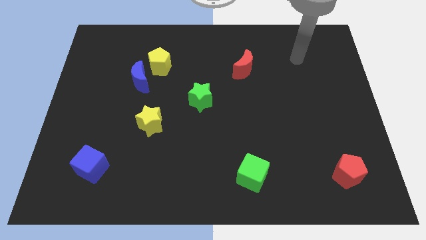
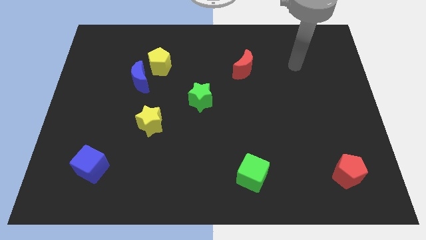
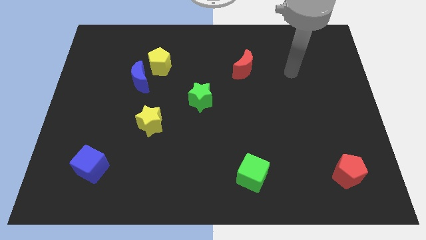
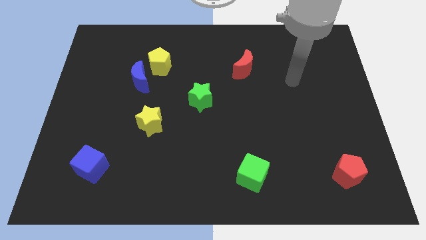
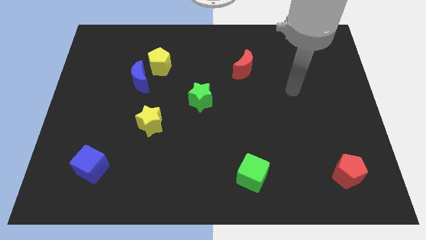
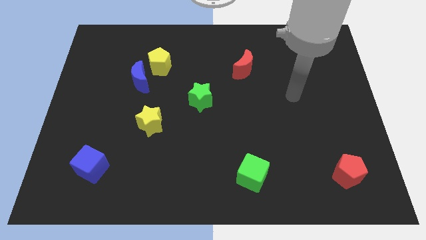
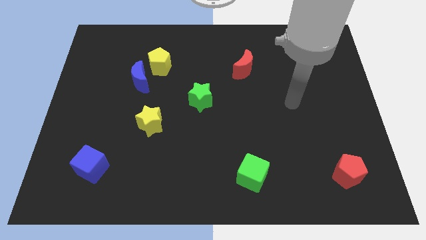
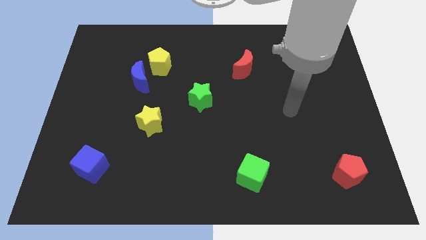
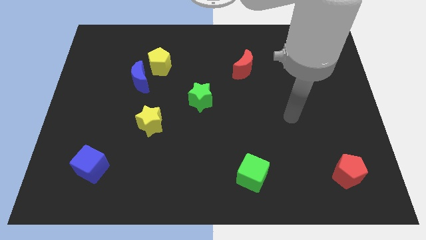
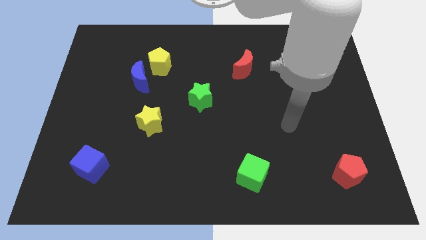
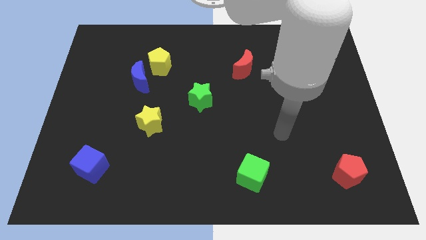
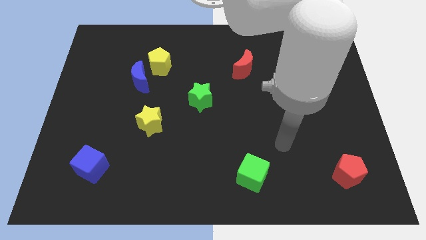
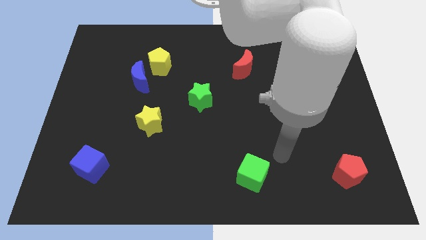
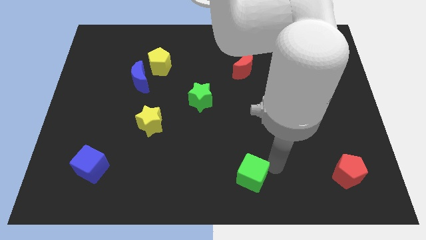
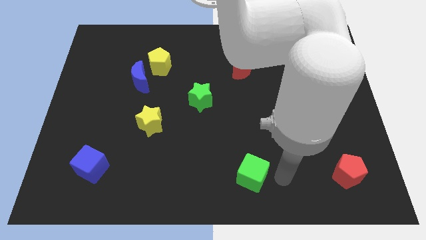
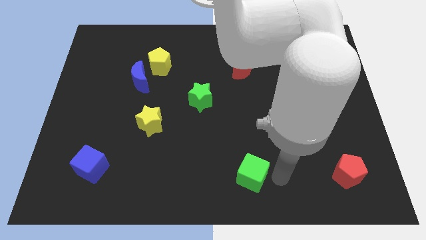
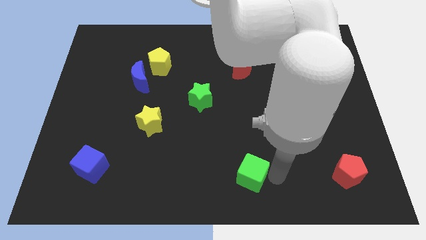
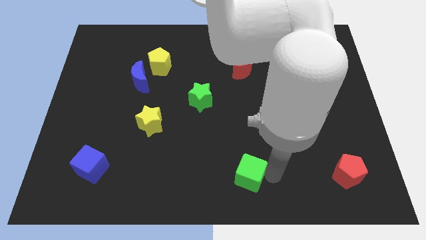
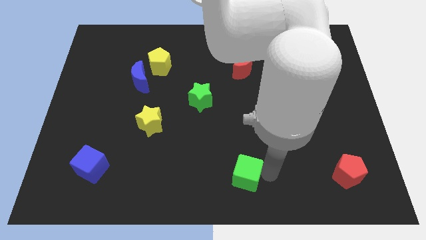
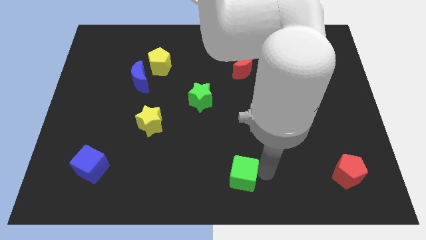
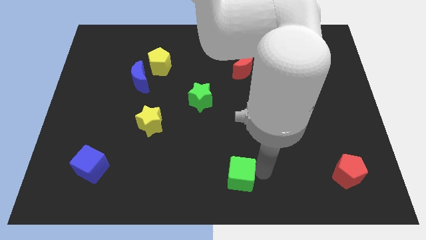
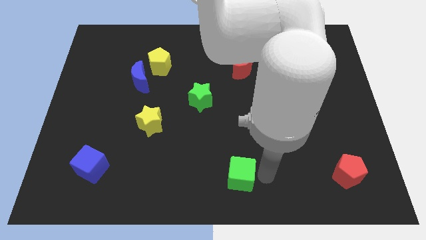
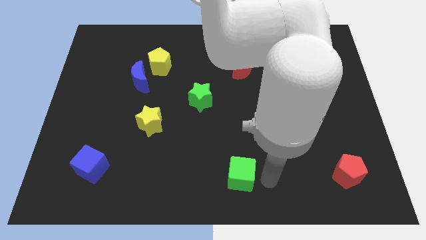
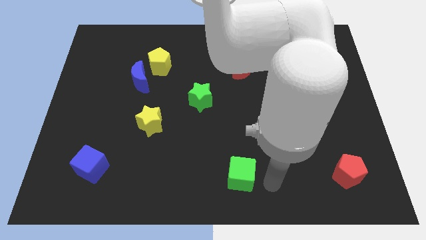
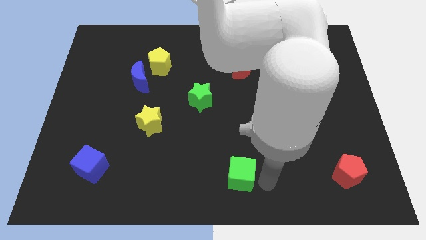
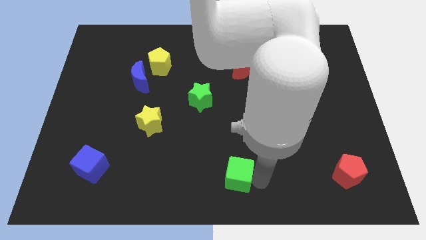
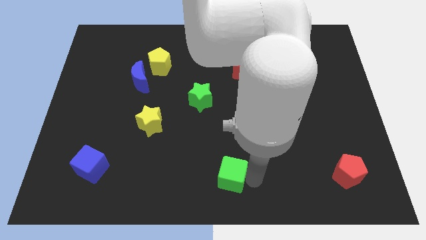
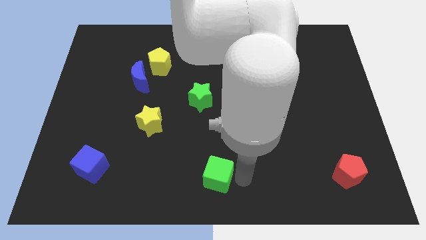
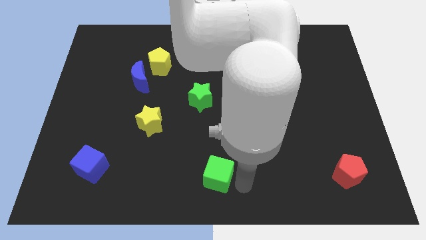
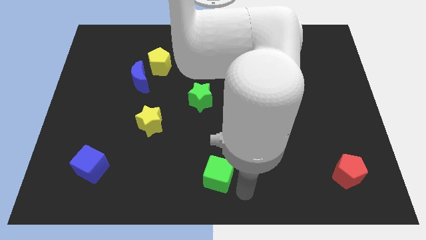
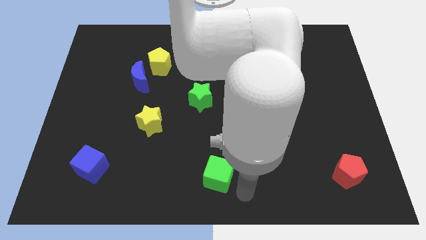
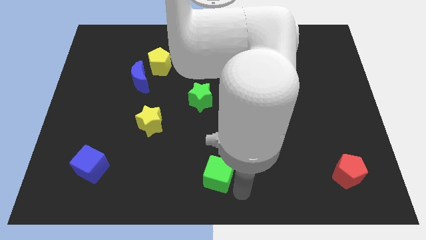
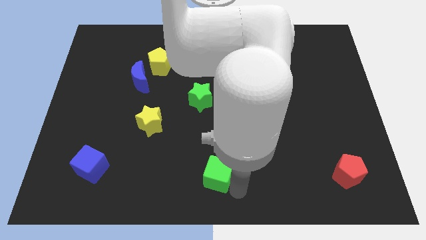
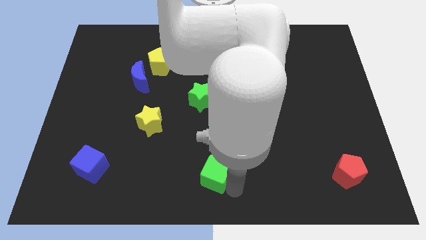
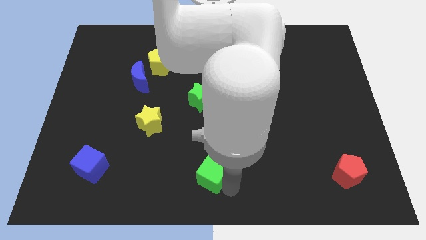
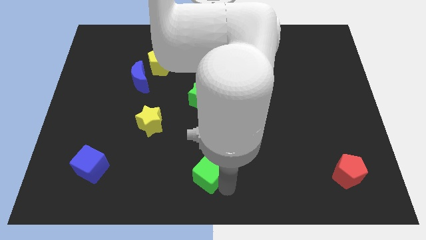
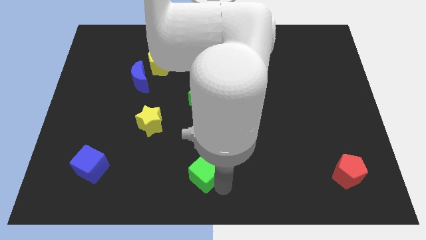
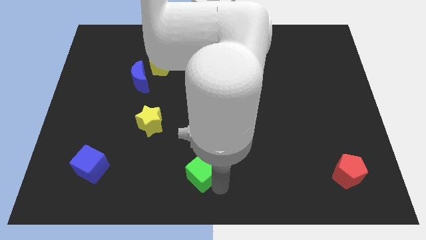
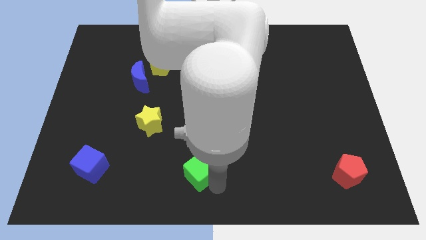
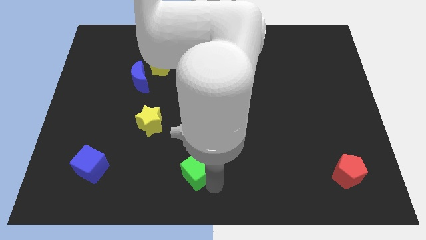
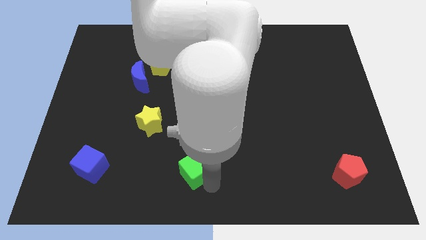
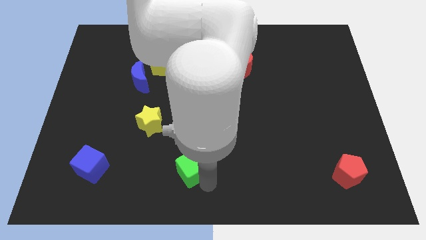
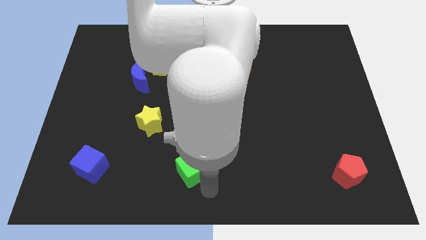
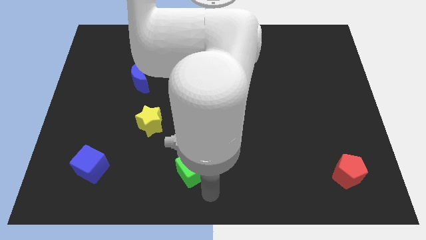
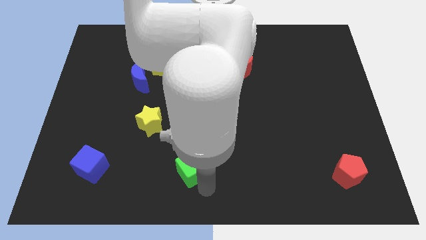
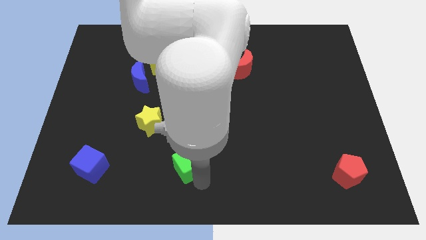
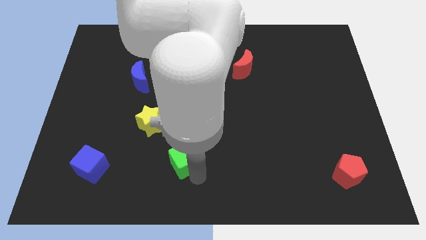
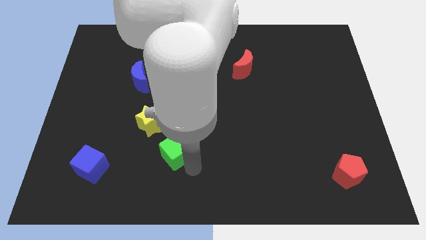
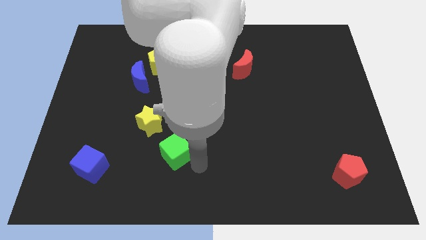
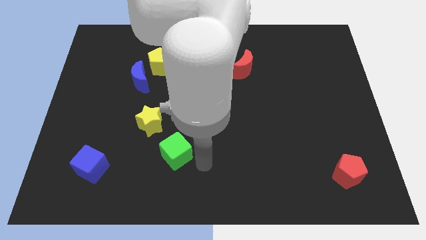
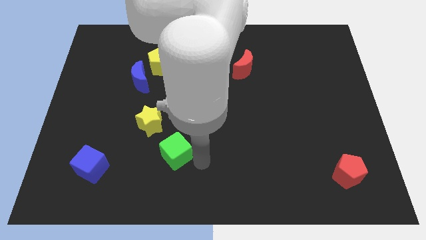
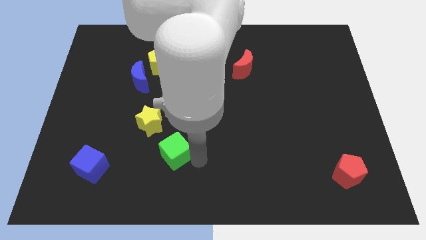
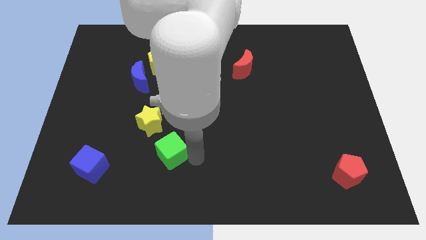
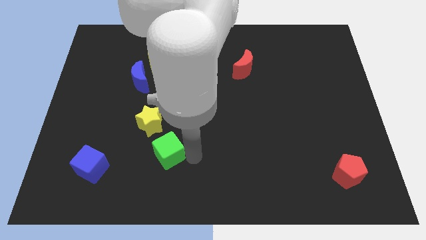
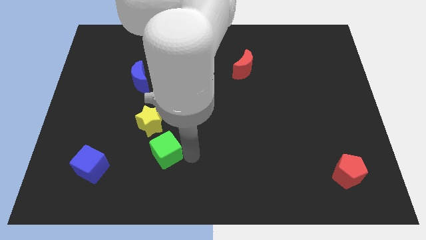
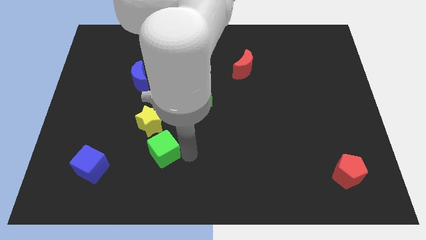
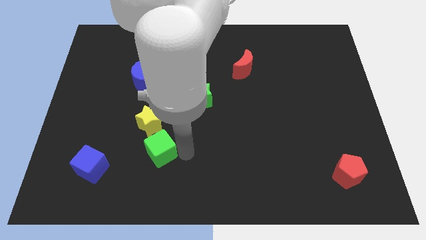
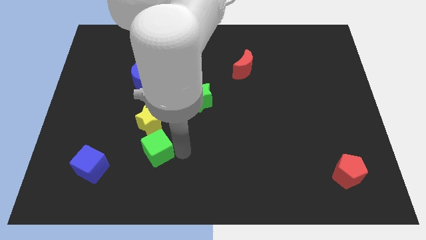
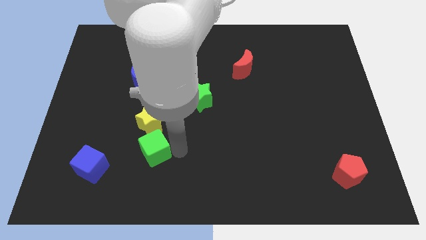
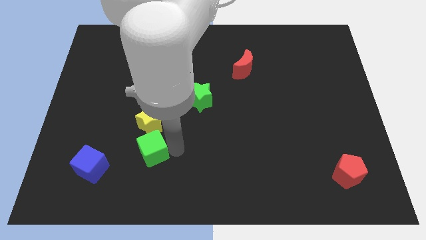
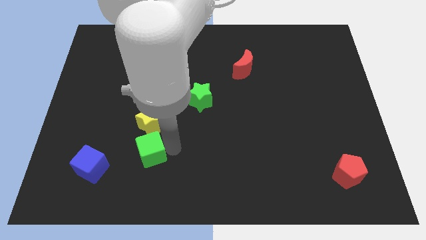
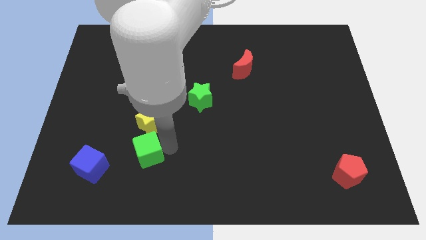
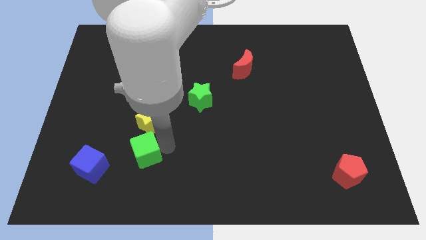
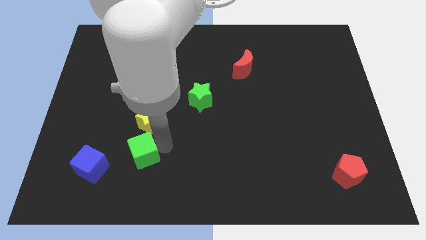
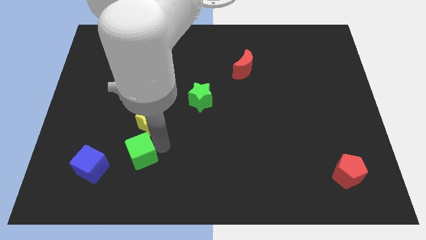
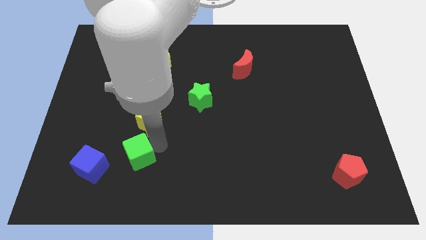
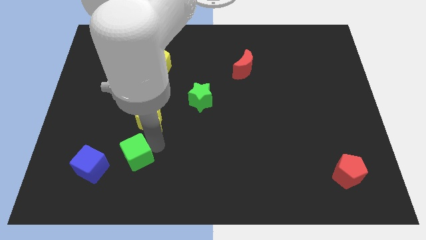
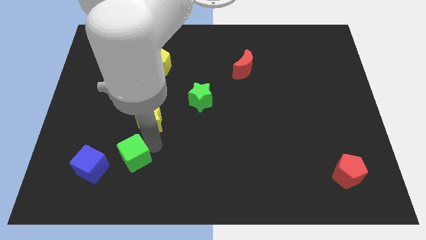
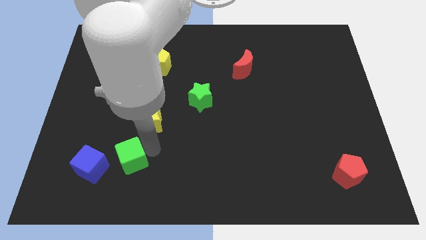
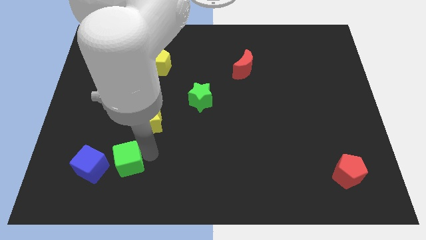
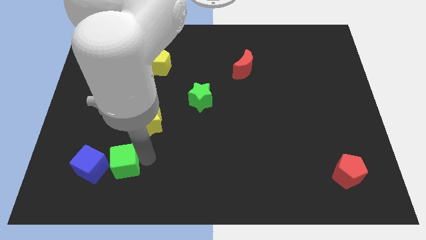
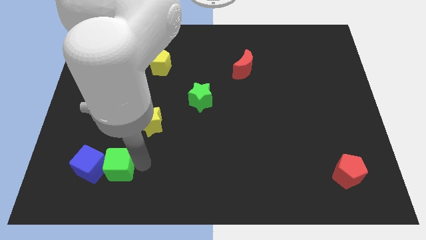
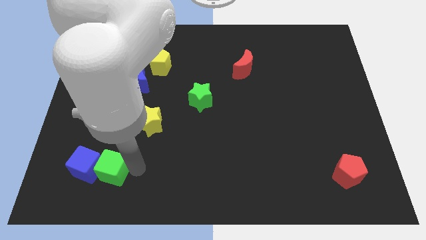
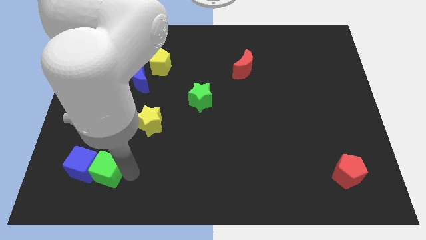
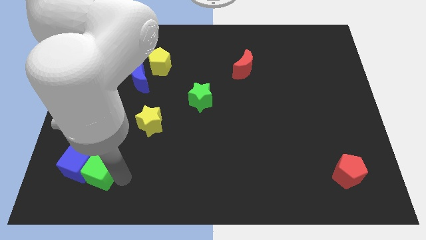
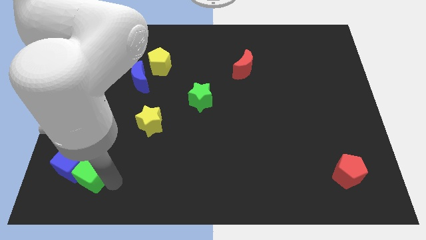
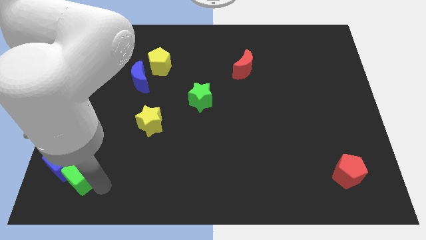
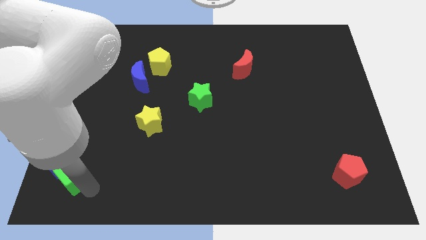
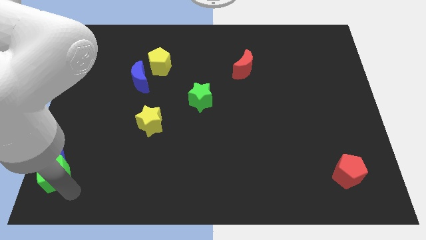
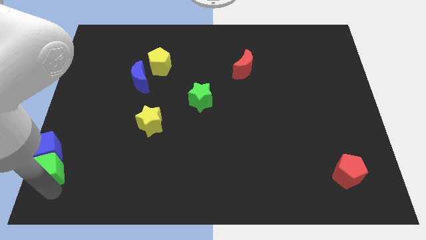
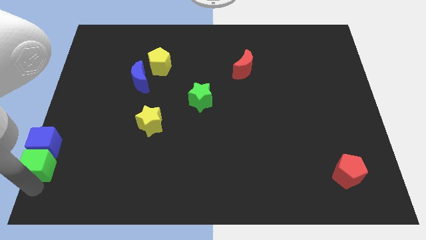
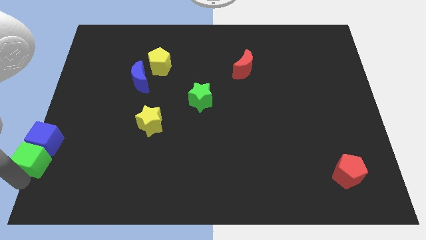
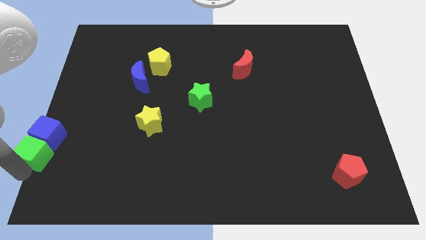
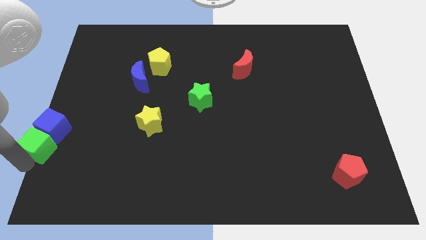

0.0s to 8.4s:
slide the green cube to the left side
